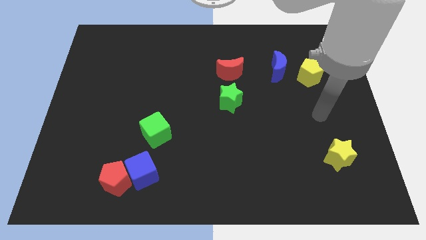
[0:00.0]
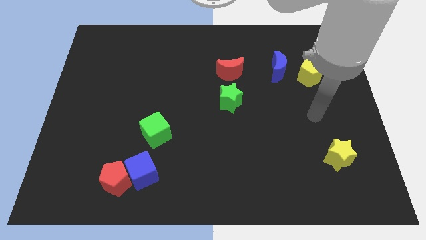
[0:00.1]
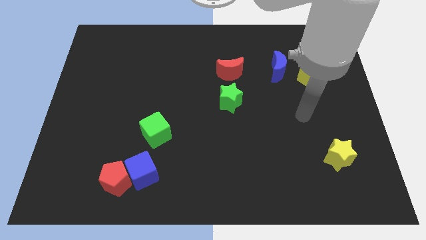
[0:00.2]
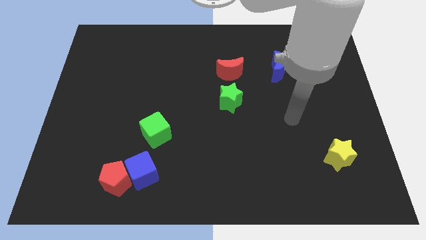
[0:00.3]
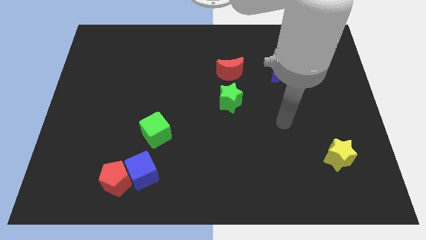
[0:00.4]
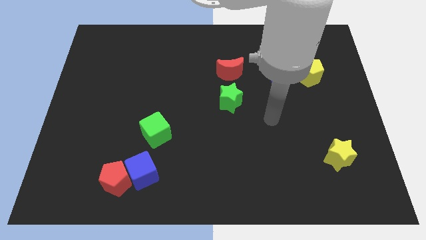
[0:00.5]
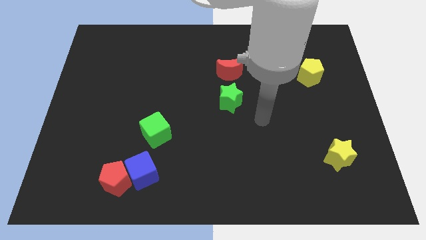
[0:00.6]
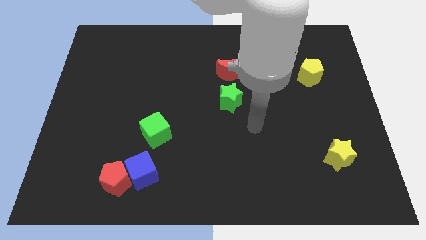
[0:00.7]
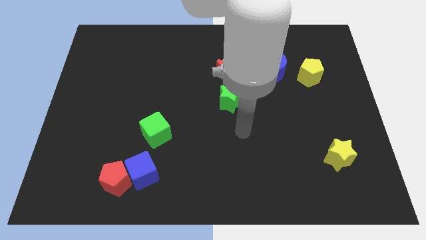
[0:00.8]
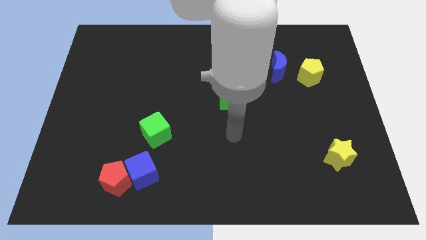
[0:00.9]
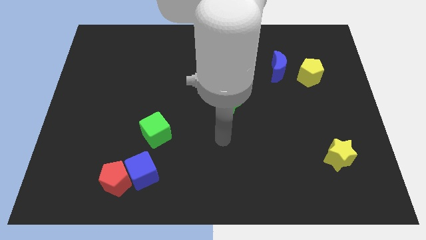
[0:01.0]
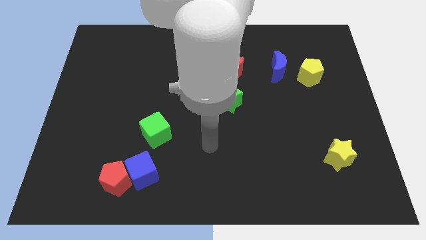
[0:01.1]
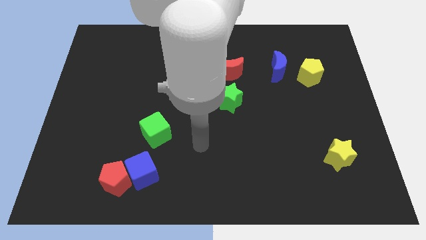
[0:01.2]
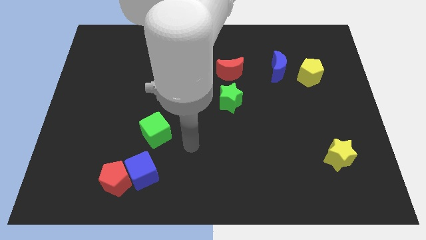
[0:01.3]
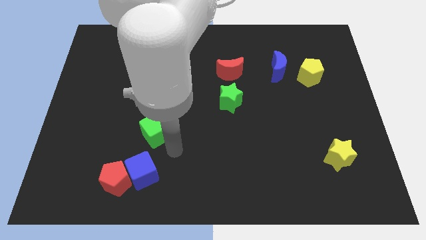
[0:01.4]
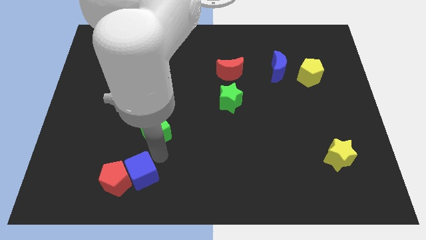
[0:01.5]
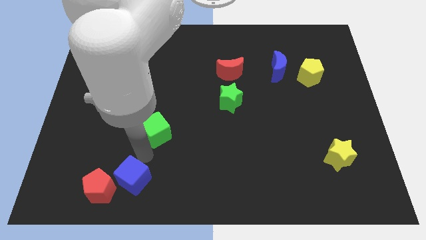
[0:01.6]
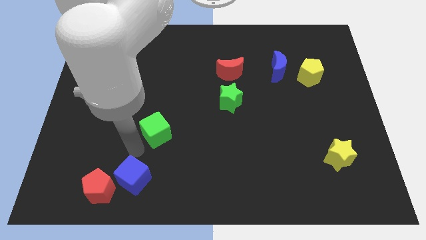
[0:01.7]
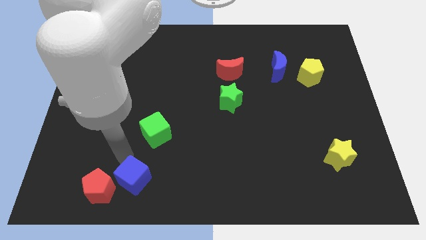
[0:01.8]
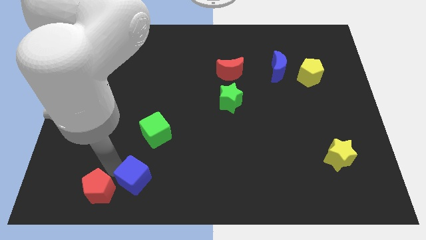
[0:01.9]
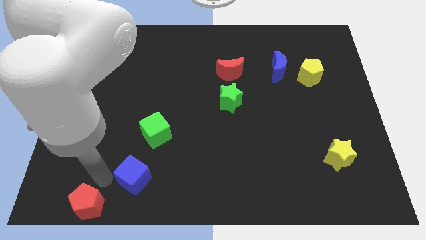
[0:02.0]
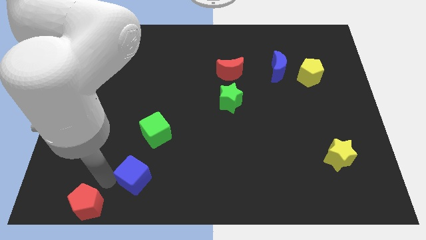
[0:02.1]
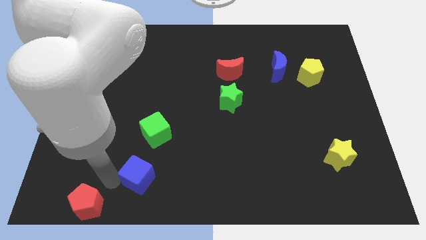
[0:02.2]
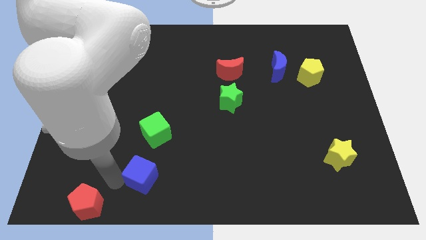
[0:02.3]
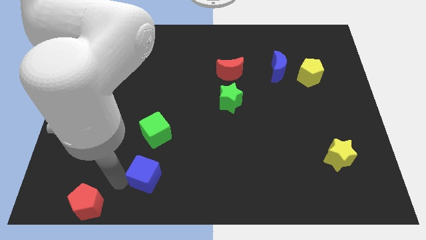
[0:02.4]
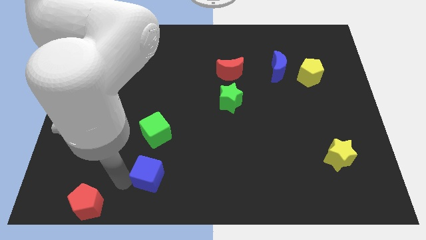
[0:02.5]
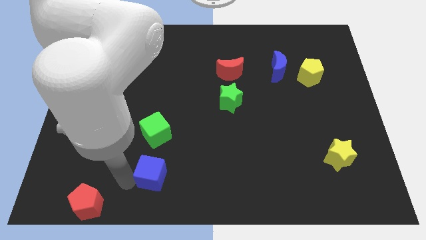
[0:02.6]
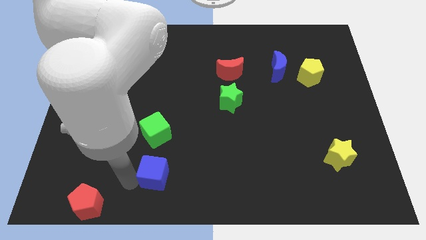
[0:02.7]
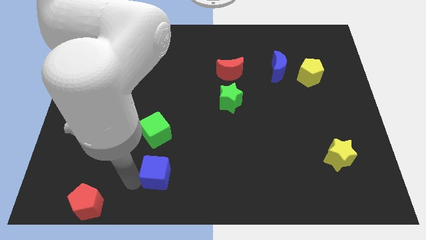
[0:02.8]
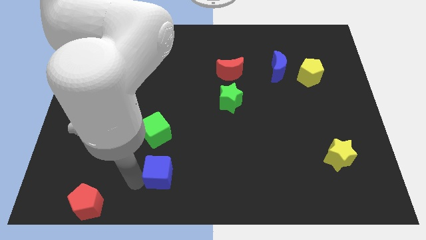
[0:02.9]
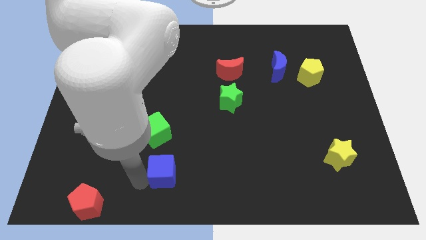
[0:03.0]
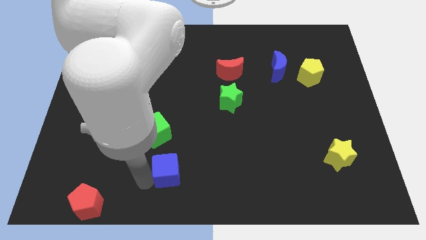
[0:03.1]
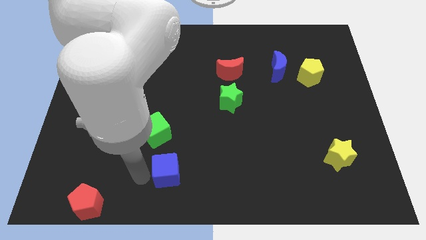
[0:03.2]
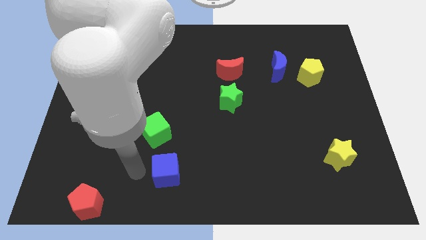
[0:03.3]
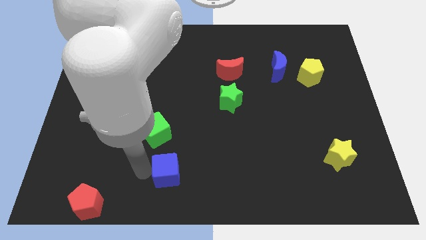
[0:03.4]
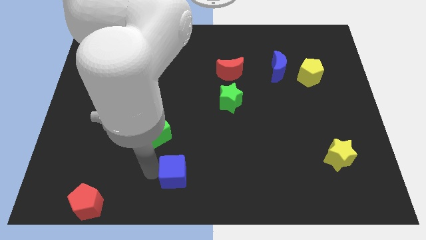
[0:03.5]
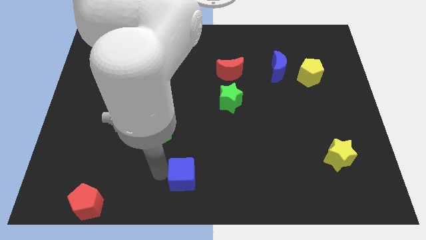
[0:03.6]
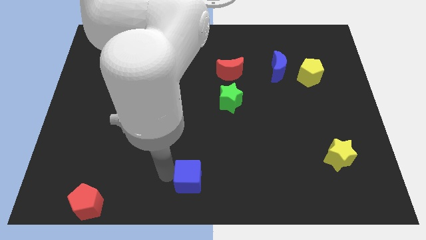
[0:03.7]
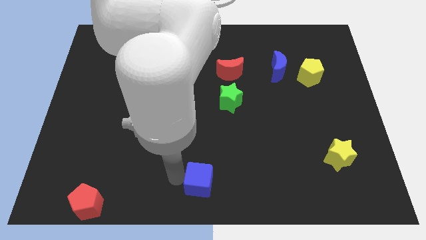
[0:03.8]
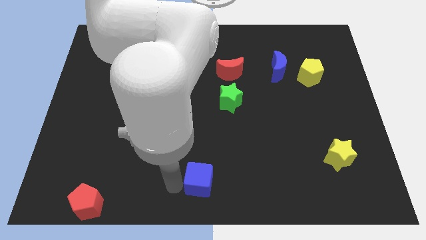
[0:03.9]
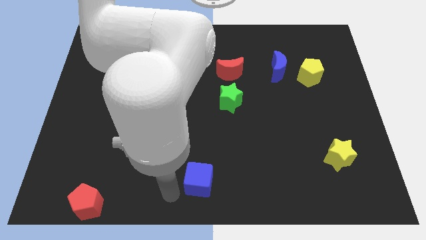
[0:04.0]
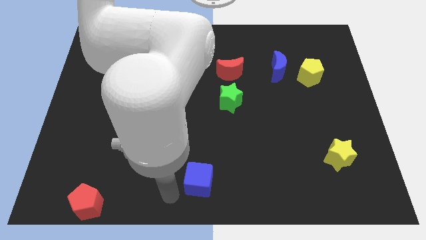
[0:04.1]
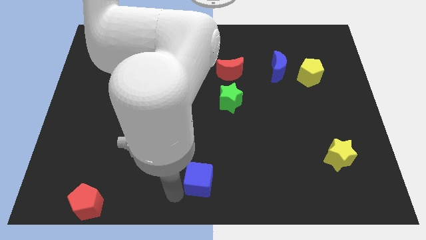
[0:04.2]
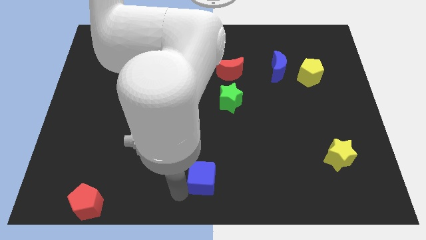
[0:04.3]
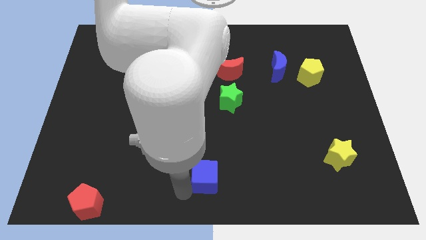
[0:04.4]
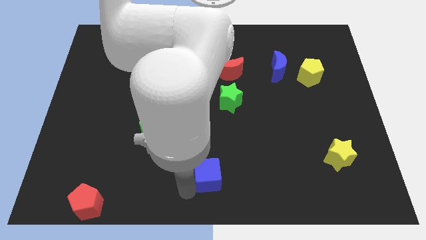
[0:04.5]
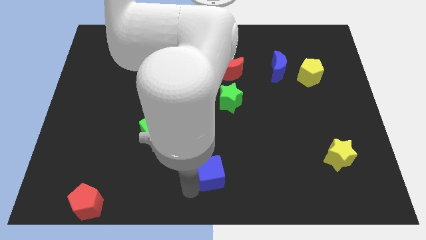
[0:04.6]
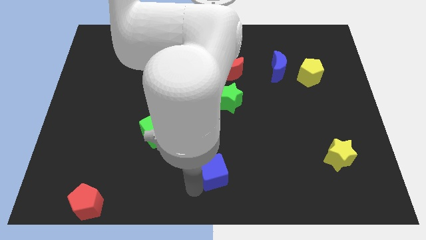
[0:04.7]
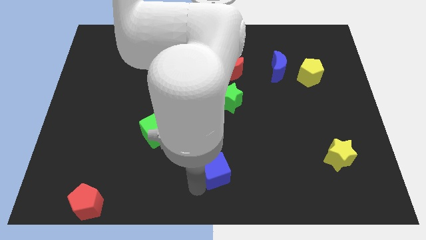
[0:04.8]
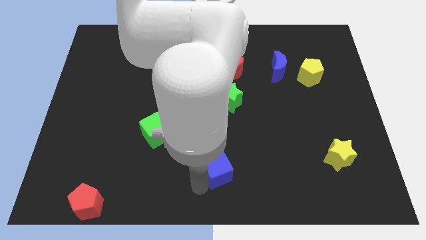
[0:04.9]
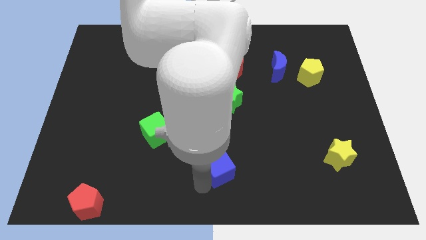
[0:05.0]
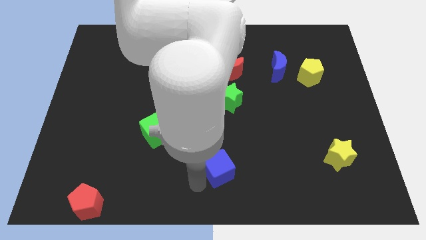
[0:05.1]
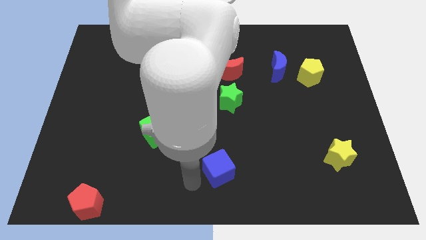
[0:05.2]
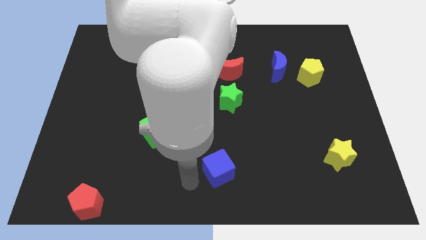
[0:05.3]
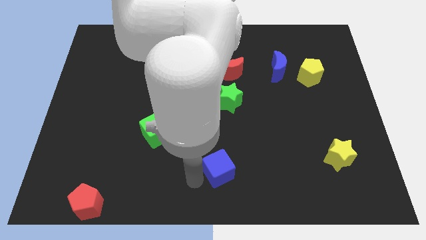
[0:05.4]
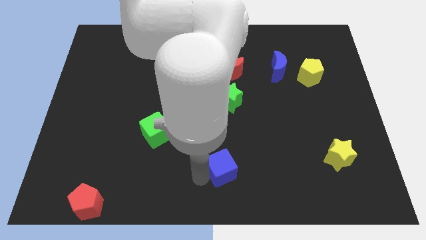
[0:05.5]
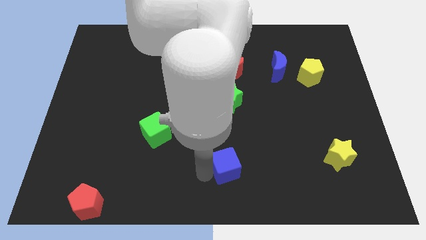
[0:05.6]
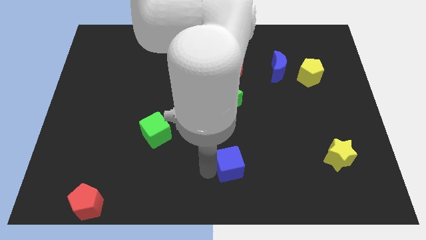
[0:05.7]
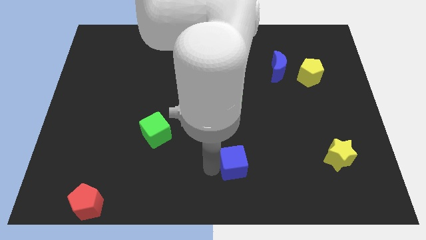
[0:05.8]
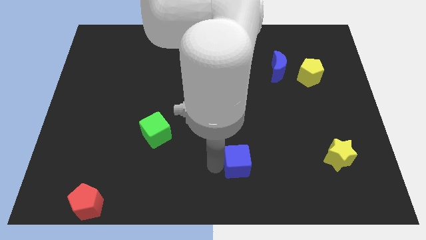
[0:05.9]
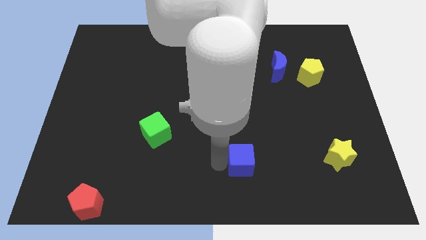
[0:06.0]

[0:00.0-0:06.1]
move the blue cube to the right

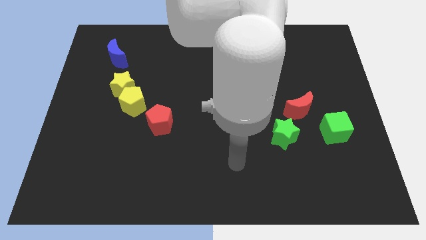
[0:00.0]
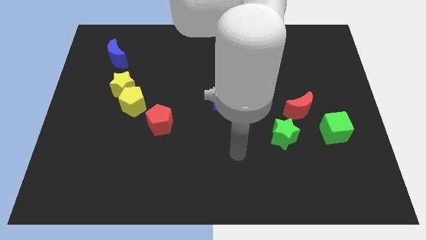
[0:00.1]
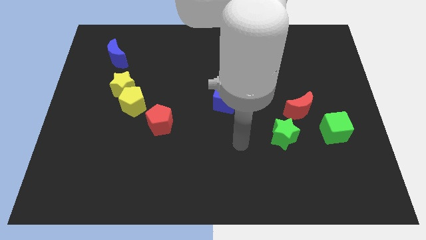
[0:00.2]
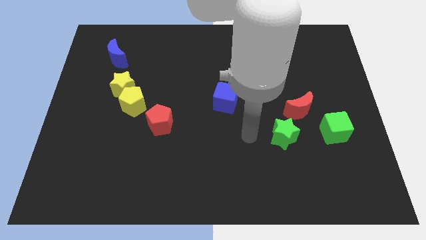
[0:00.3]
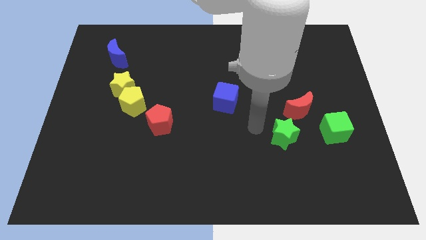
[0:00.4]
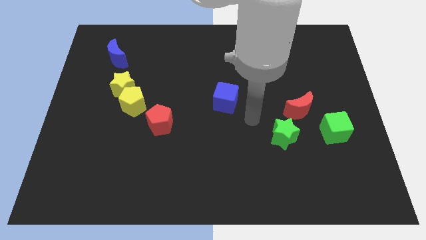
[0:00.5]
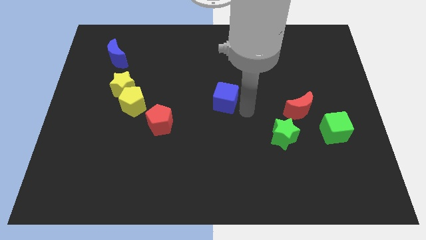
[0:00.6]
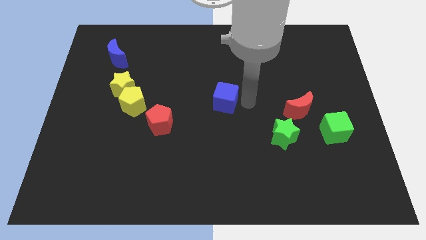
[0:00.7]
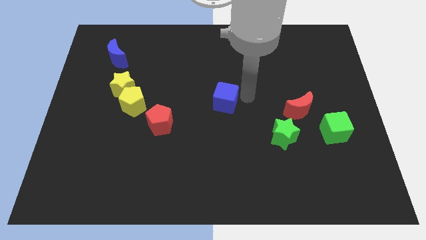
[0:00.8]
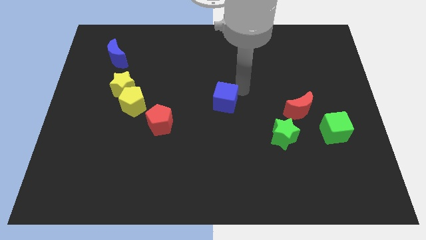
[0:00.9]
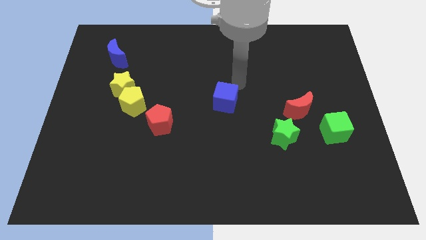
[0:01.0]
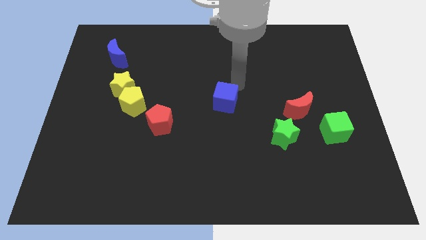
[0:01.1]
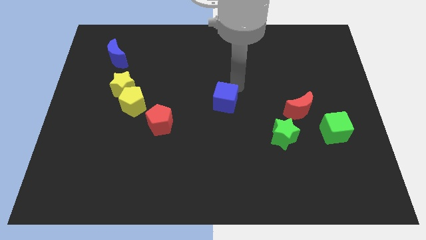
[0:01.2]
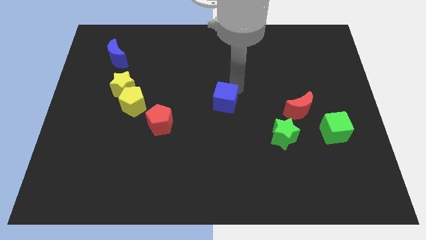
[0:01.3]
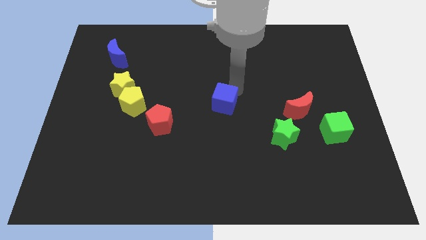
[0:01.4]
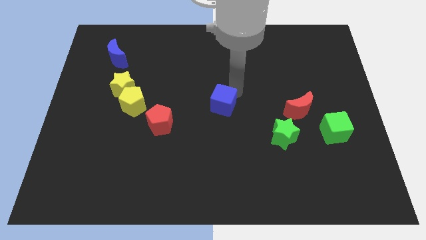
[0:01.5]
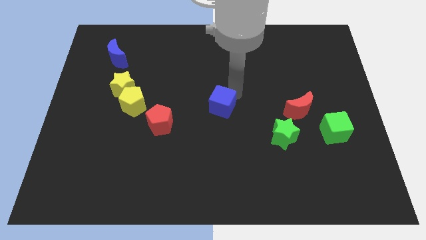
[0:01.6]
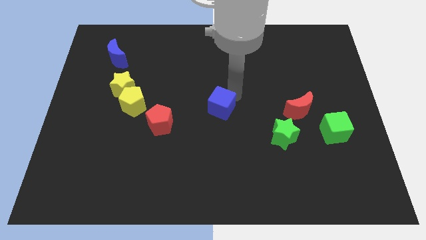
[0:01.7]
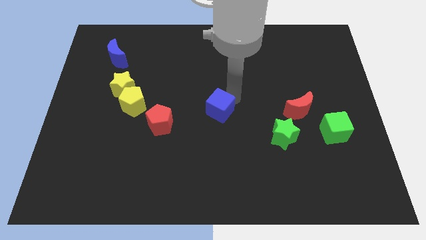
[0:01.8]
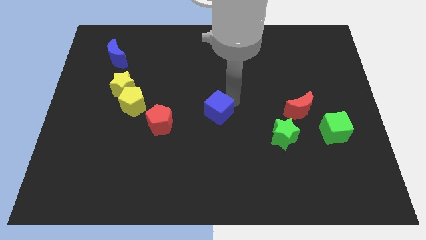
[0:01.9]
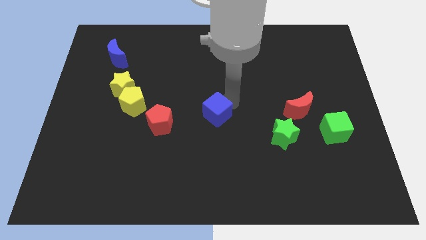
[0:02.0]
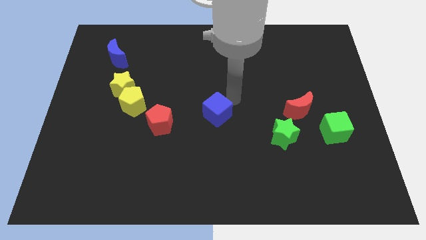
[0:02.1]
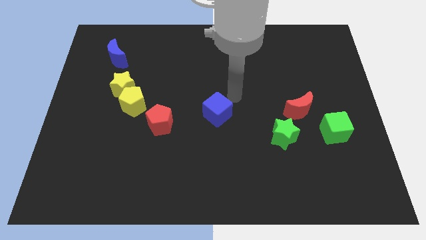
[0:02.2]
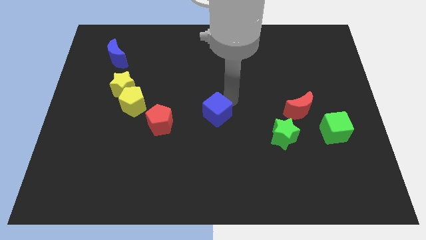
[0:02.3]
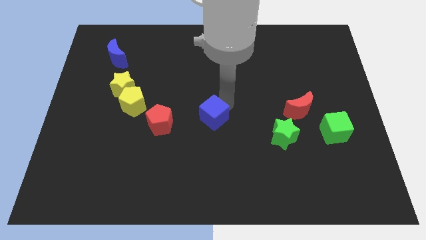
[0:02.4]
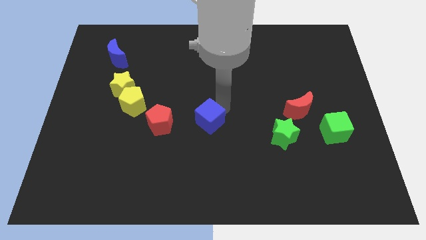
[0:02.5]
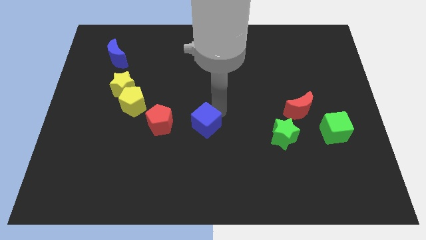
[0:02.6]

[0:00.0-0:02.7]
slide the blue cube a little bit diagonally downwards and to the left
